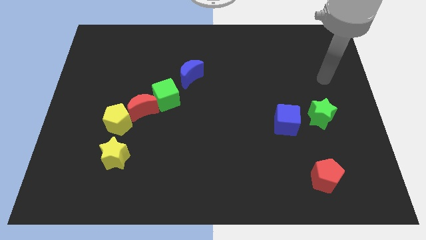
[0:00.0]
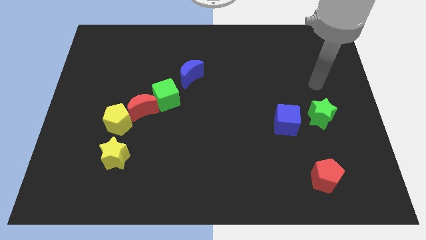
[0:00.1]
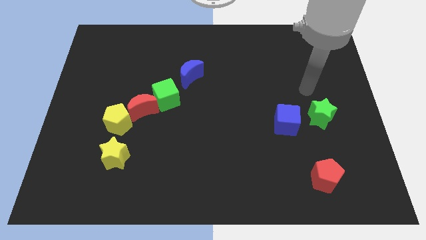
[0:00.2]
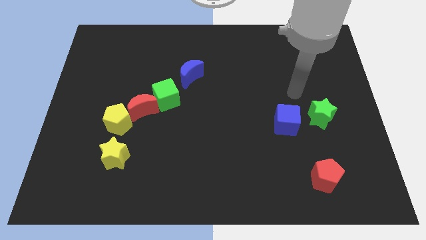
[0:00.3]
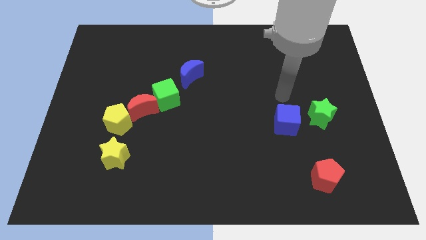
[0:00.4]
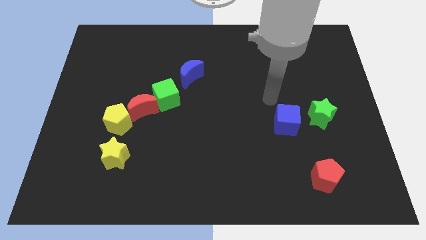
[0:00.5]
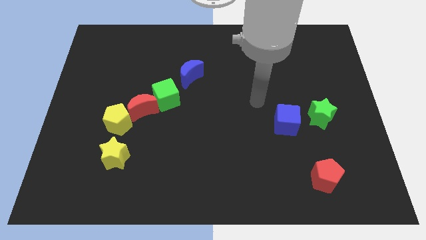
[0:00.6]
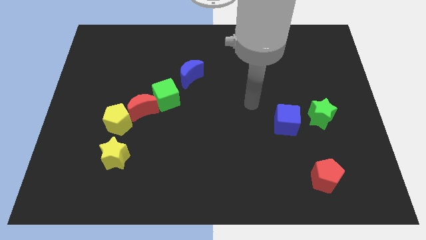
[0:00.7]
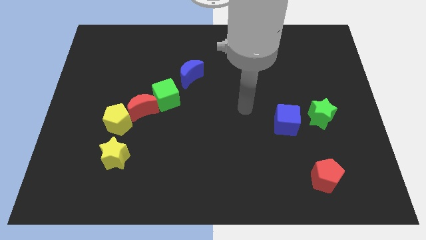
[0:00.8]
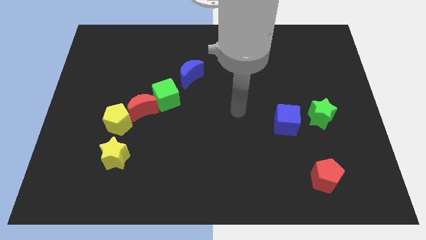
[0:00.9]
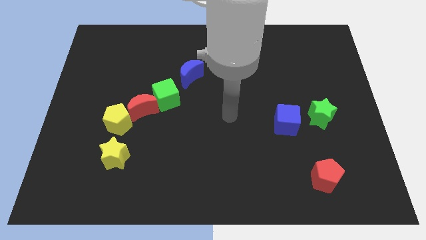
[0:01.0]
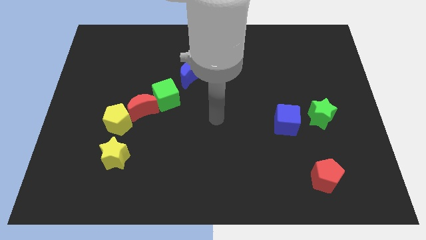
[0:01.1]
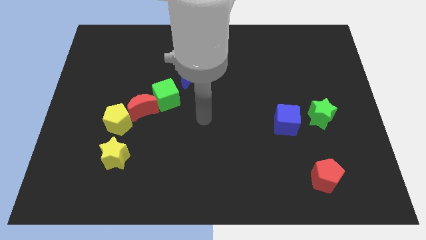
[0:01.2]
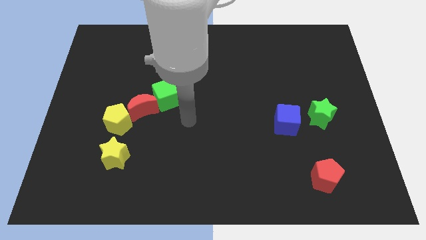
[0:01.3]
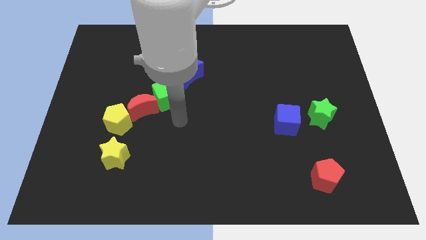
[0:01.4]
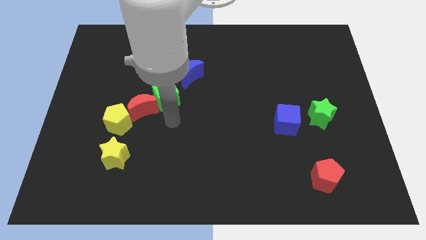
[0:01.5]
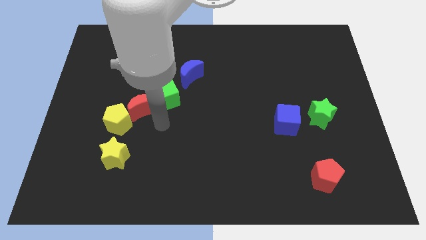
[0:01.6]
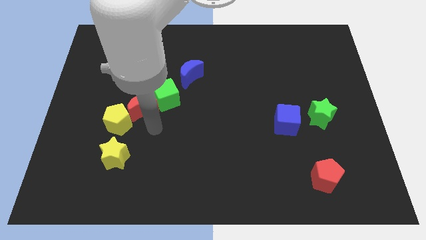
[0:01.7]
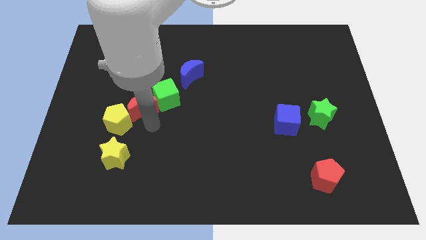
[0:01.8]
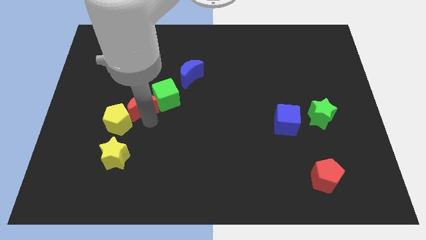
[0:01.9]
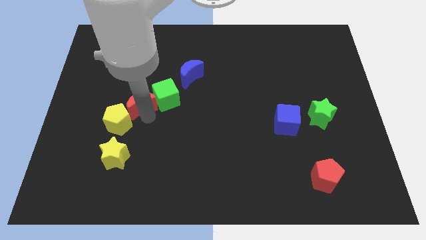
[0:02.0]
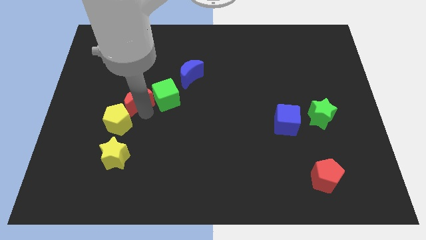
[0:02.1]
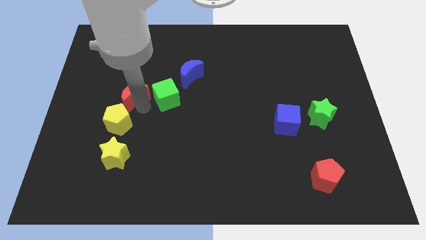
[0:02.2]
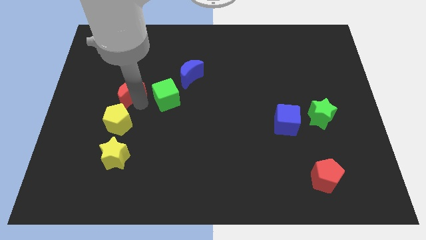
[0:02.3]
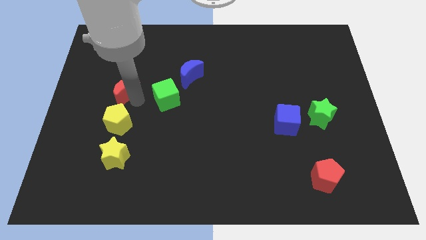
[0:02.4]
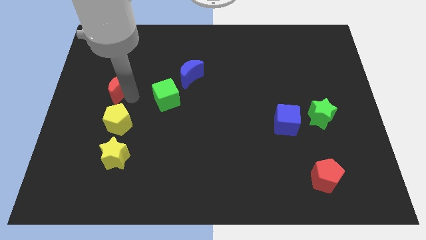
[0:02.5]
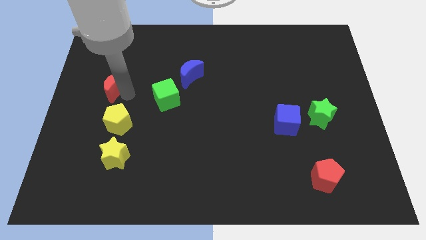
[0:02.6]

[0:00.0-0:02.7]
separate the red moon from the green cube and yellow pentagon

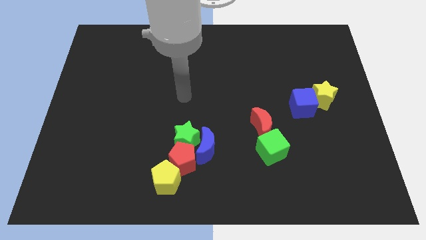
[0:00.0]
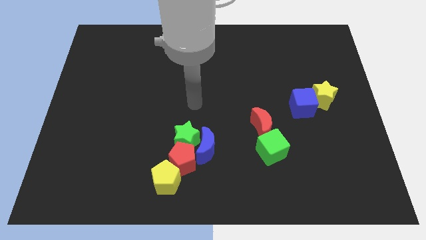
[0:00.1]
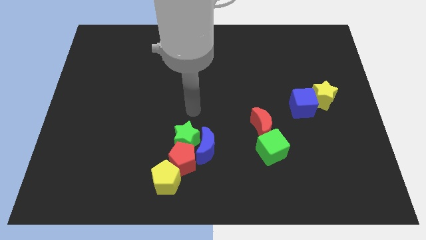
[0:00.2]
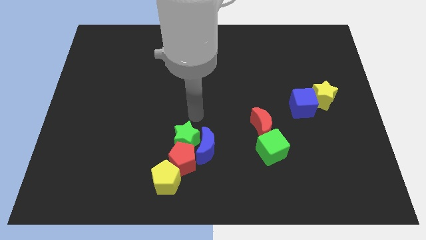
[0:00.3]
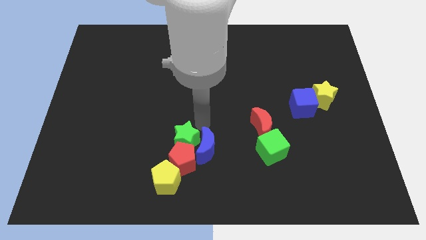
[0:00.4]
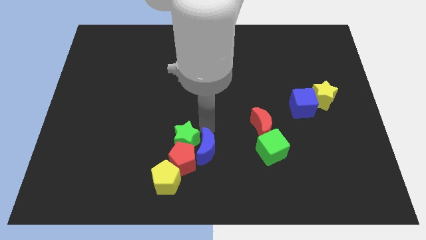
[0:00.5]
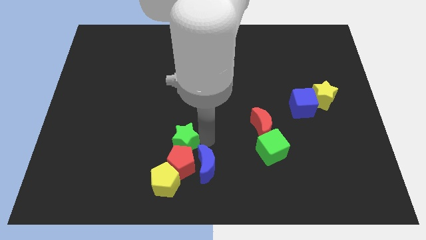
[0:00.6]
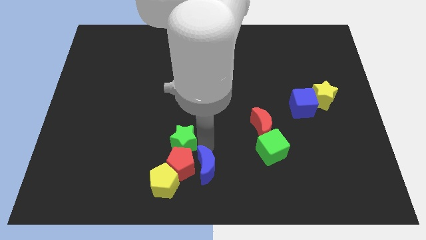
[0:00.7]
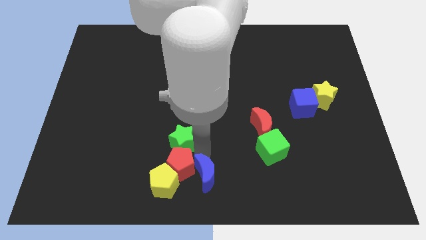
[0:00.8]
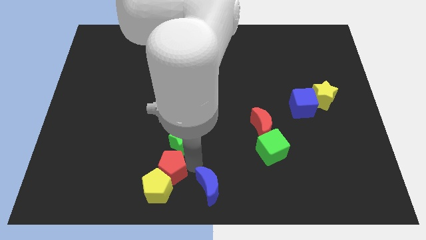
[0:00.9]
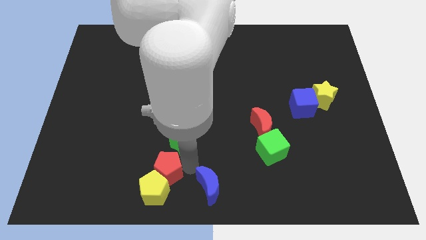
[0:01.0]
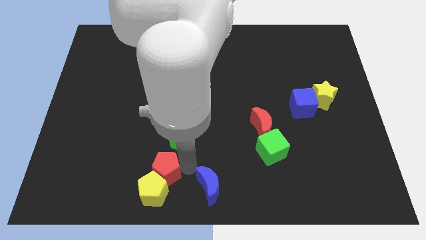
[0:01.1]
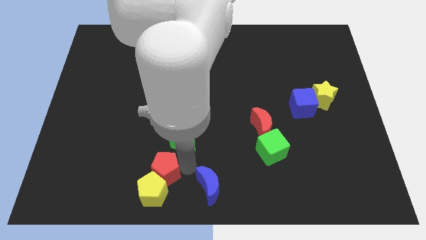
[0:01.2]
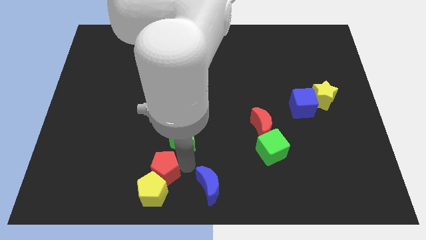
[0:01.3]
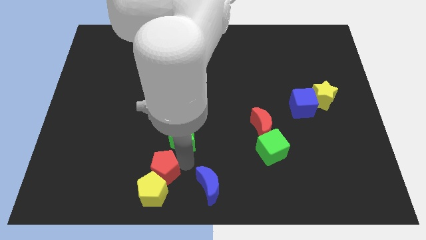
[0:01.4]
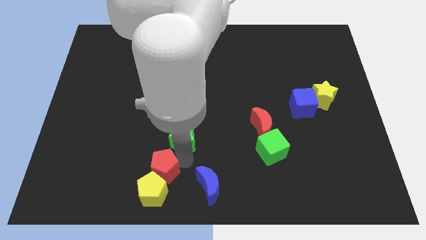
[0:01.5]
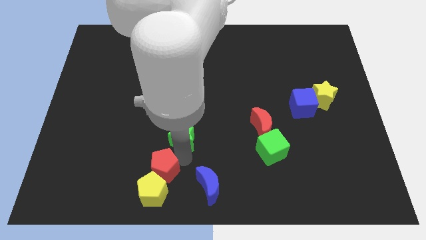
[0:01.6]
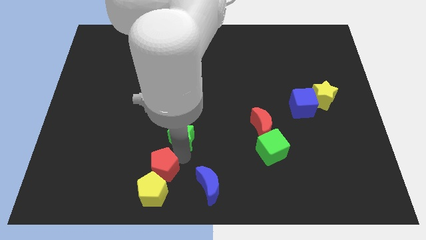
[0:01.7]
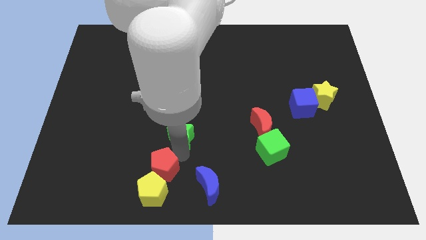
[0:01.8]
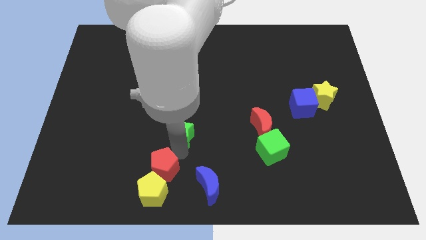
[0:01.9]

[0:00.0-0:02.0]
pull the green star apart from the blue moon and red pentagon

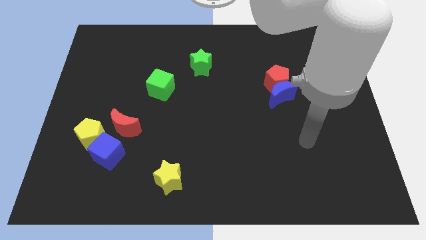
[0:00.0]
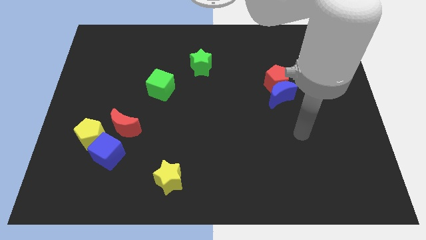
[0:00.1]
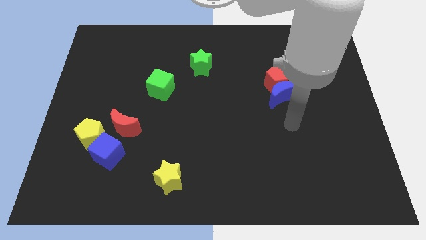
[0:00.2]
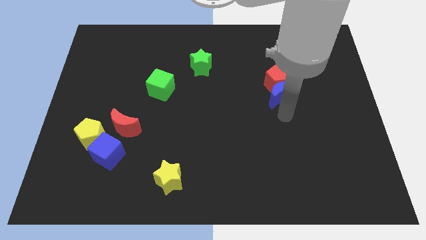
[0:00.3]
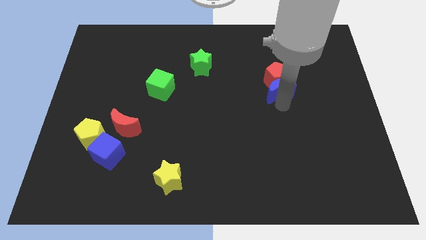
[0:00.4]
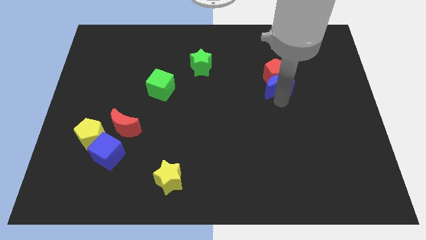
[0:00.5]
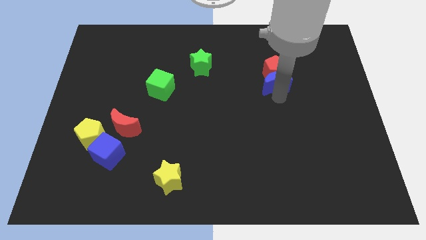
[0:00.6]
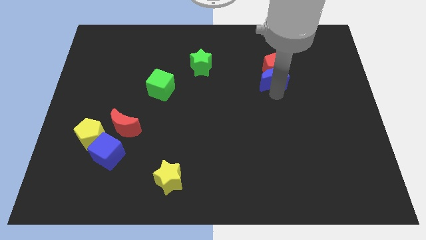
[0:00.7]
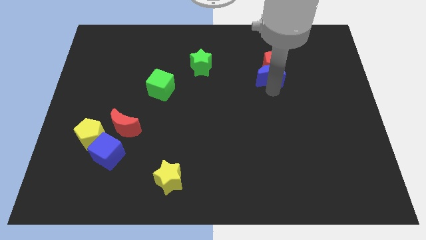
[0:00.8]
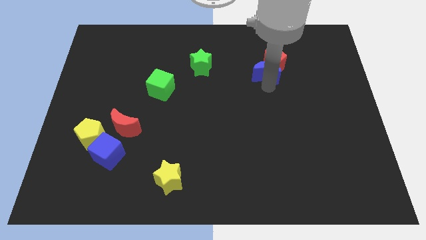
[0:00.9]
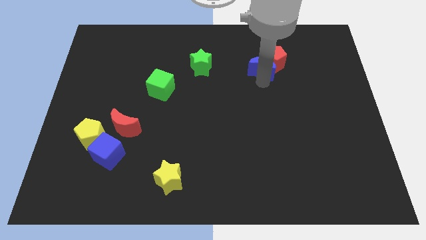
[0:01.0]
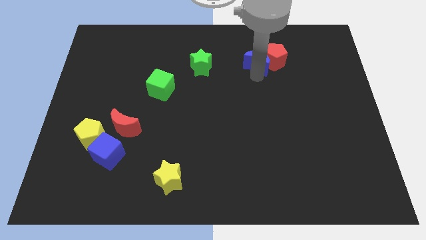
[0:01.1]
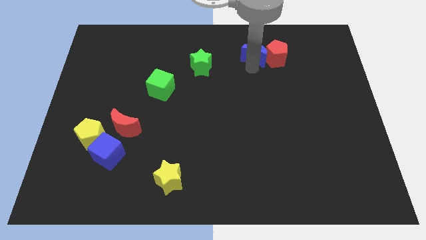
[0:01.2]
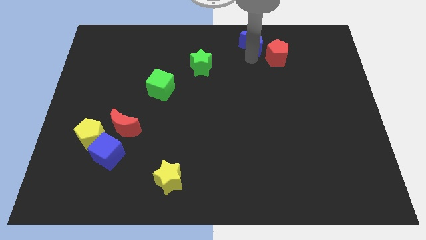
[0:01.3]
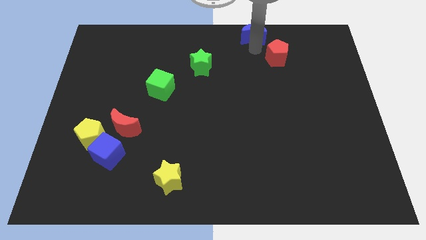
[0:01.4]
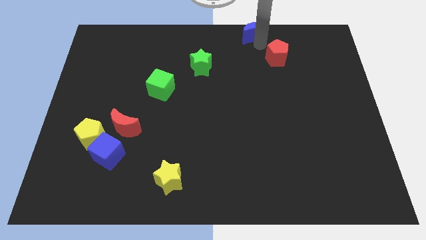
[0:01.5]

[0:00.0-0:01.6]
pull the red pentagon apart from the blue moon

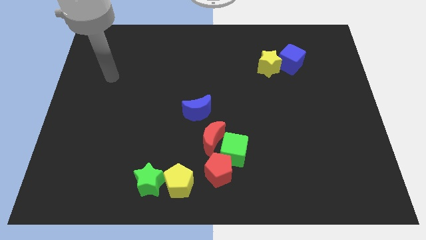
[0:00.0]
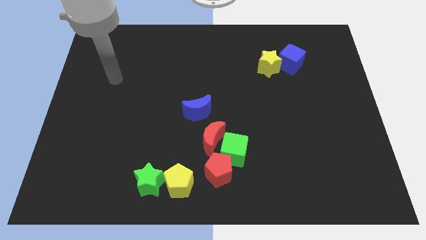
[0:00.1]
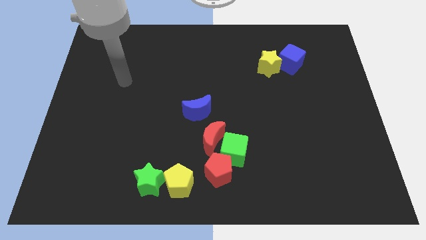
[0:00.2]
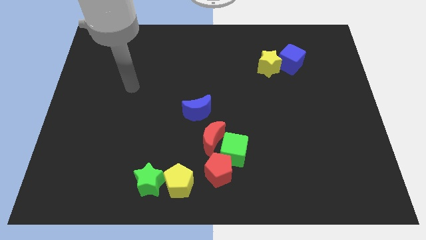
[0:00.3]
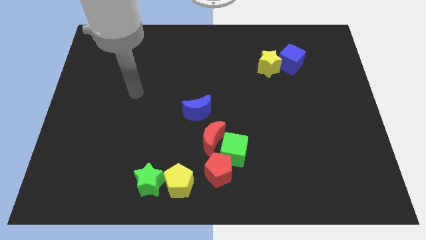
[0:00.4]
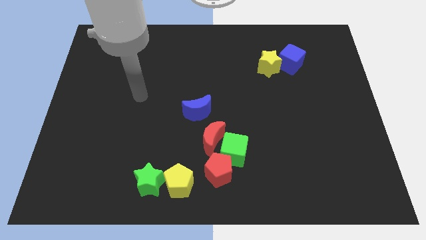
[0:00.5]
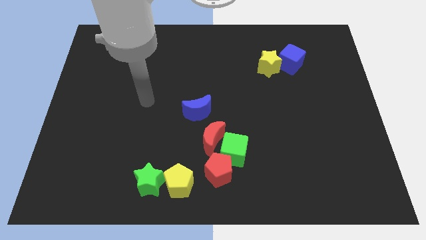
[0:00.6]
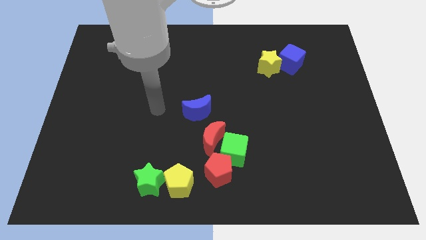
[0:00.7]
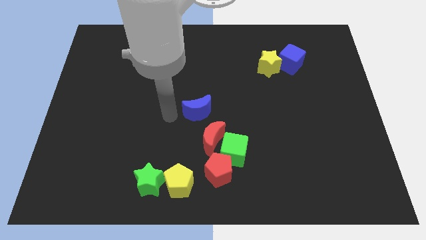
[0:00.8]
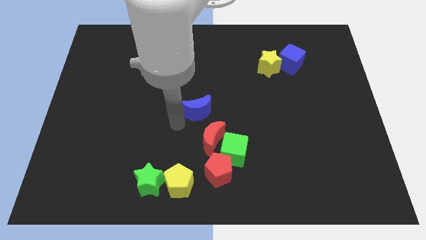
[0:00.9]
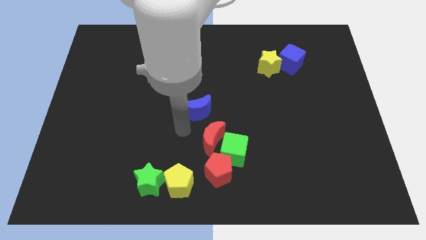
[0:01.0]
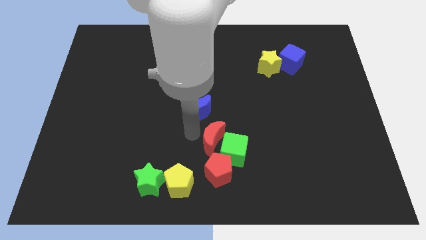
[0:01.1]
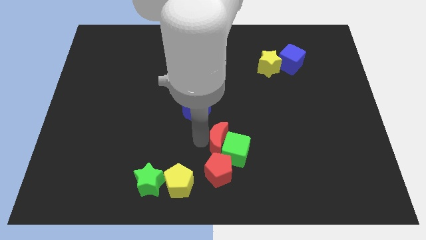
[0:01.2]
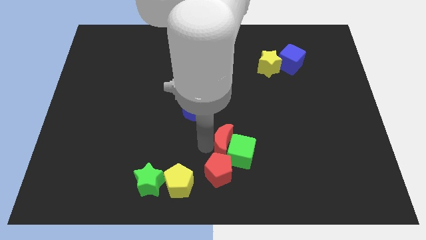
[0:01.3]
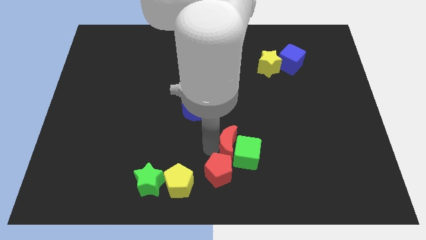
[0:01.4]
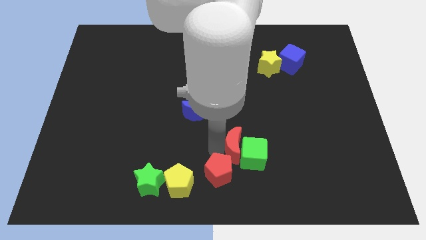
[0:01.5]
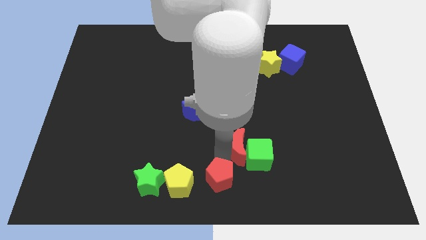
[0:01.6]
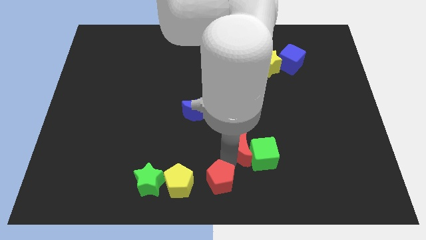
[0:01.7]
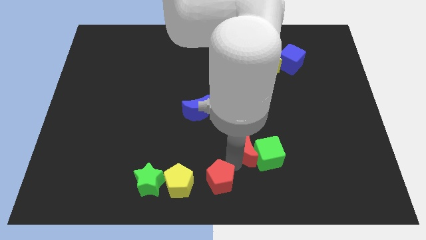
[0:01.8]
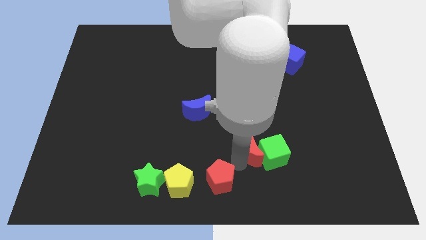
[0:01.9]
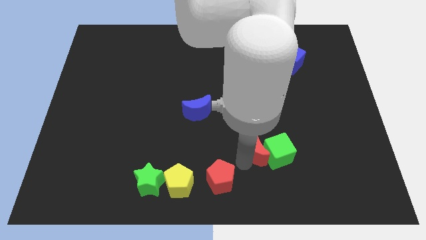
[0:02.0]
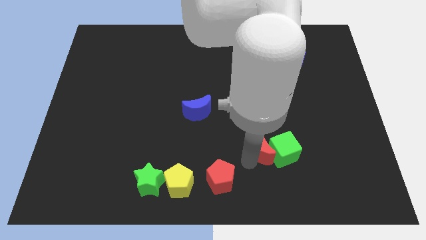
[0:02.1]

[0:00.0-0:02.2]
separate the green cube from the red moon and red pentagon

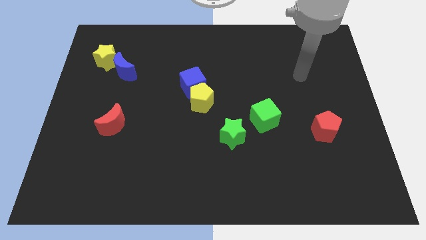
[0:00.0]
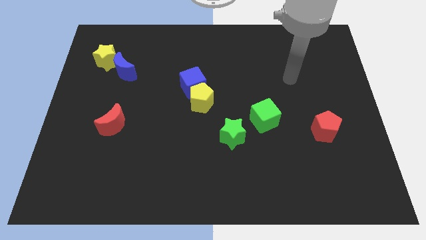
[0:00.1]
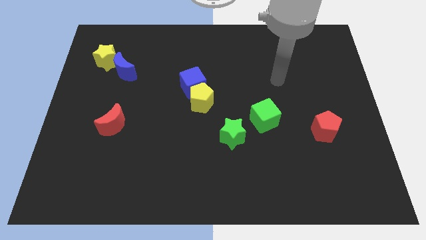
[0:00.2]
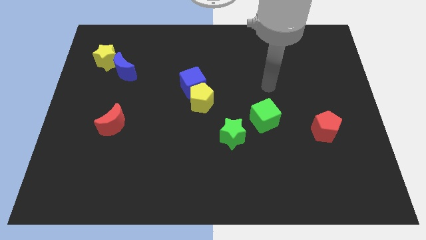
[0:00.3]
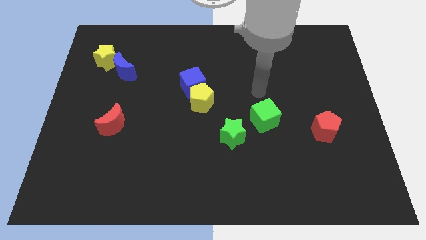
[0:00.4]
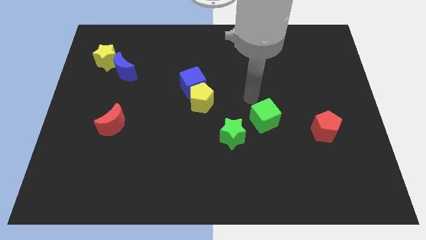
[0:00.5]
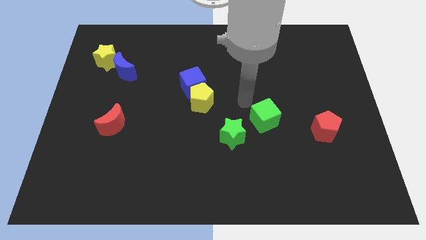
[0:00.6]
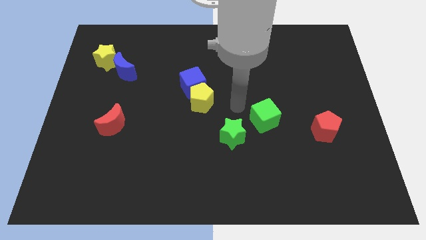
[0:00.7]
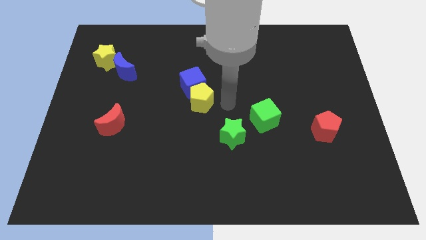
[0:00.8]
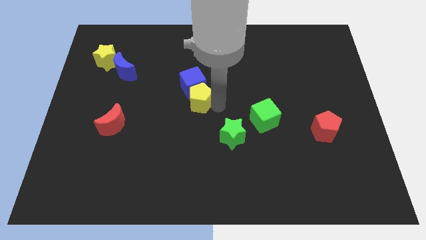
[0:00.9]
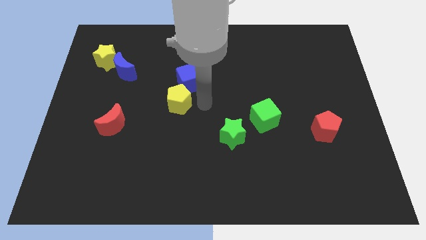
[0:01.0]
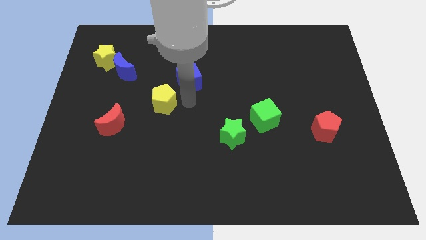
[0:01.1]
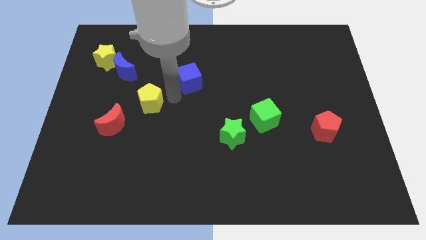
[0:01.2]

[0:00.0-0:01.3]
separate the blue cube from the yellow pentagon
